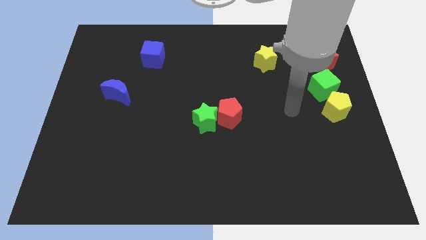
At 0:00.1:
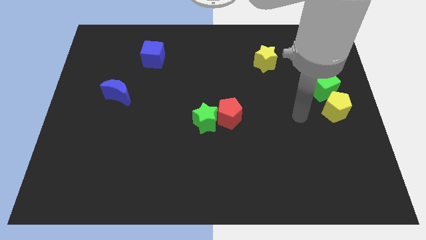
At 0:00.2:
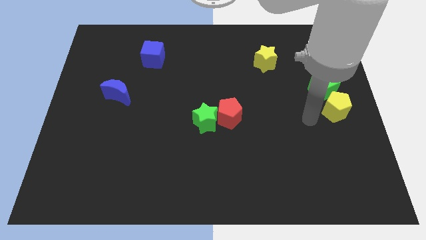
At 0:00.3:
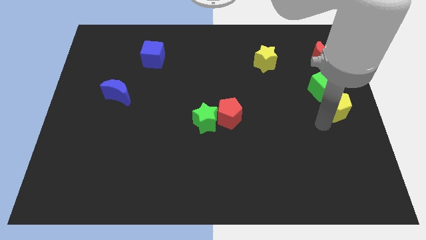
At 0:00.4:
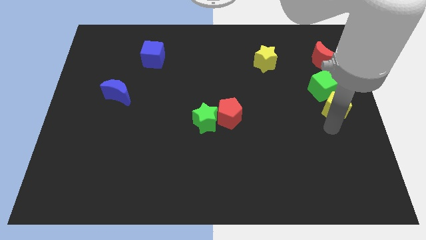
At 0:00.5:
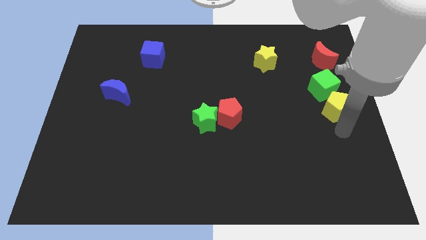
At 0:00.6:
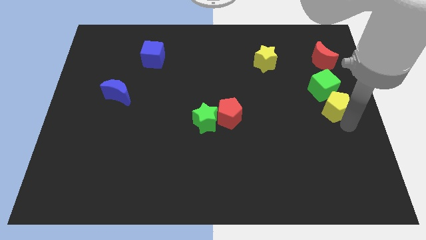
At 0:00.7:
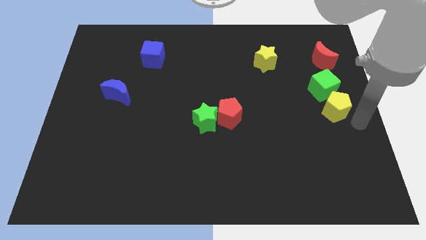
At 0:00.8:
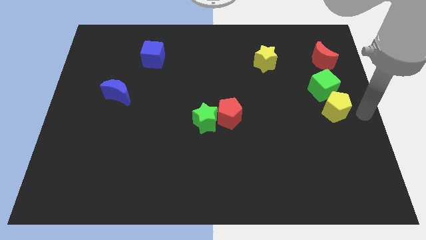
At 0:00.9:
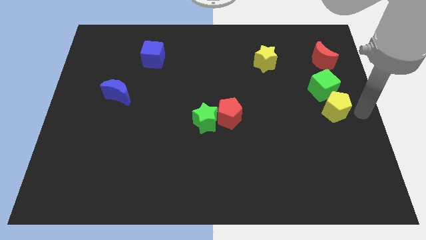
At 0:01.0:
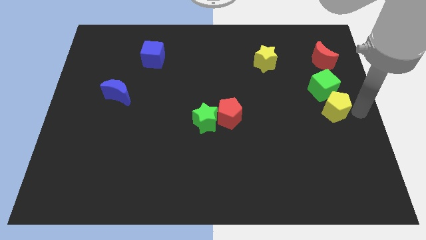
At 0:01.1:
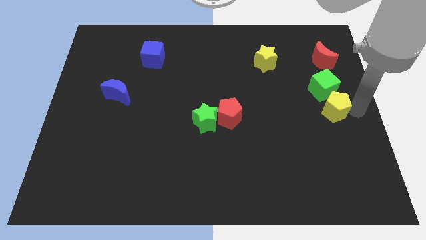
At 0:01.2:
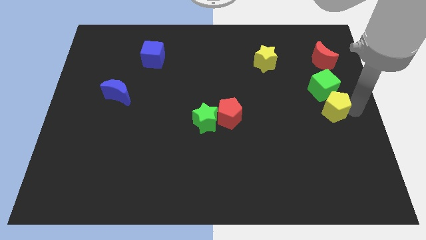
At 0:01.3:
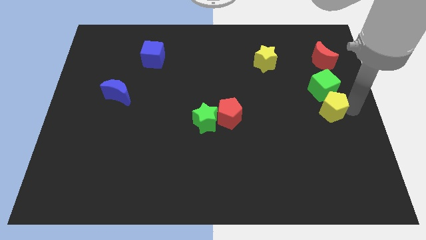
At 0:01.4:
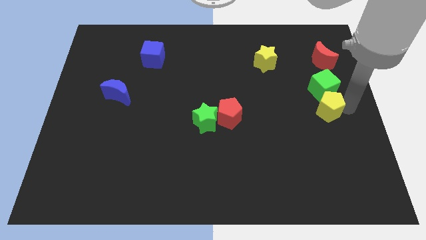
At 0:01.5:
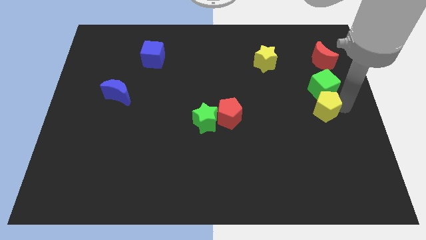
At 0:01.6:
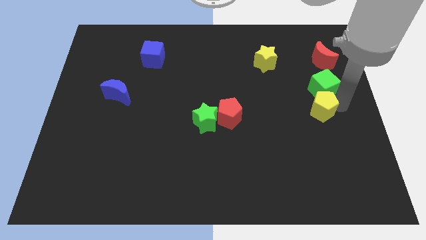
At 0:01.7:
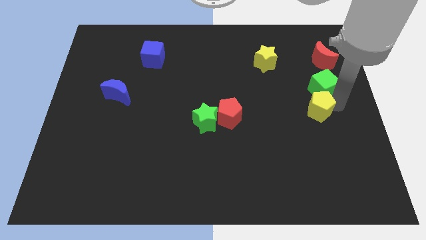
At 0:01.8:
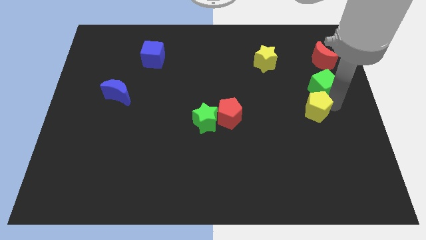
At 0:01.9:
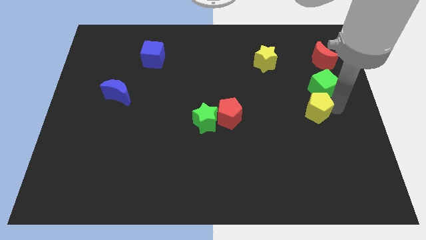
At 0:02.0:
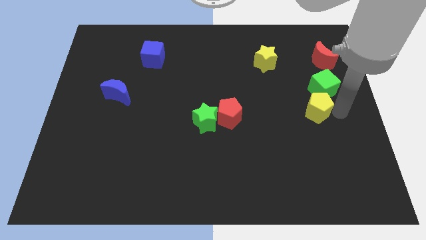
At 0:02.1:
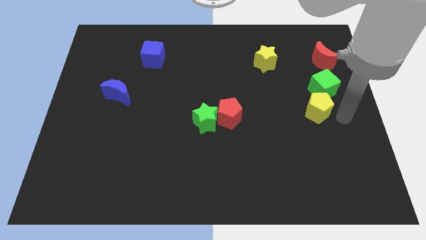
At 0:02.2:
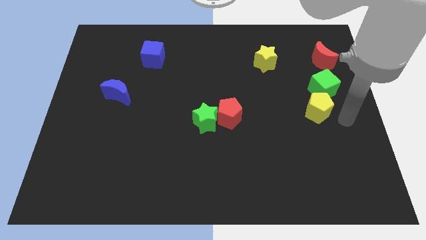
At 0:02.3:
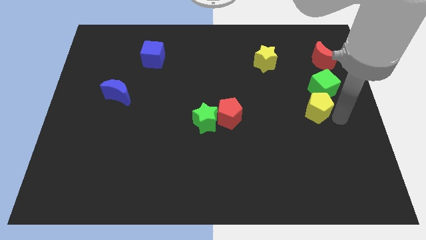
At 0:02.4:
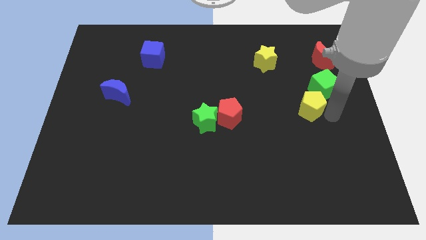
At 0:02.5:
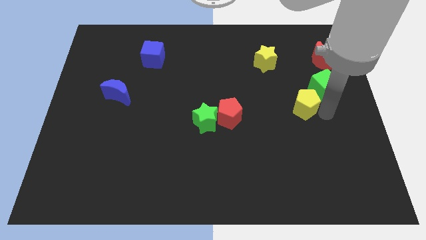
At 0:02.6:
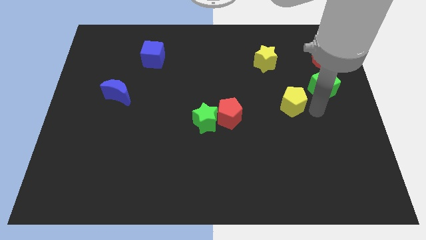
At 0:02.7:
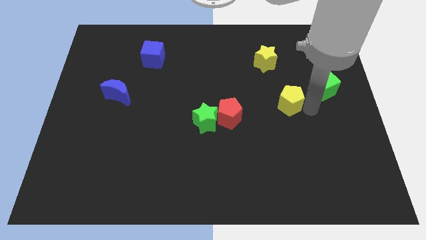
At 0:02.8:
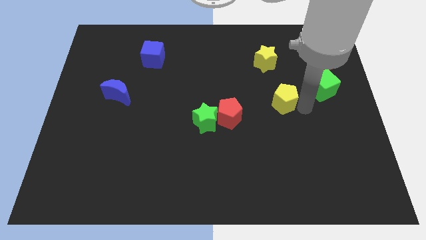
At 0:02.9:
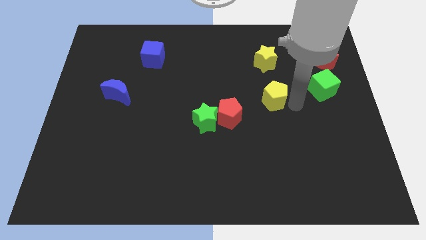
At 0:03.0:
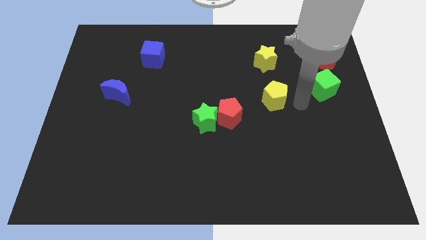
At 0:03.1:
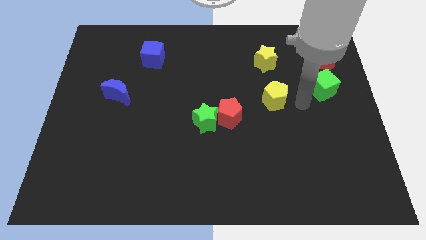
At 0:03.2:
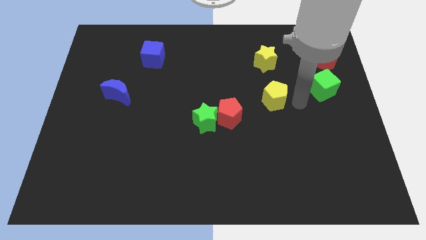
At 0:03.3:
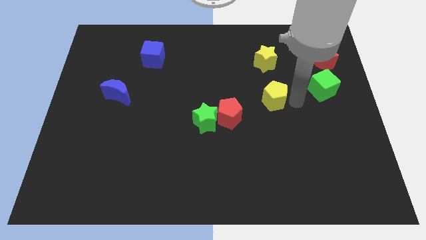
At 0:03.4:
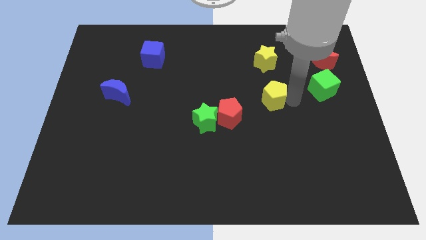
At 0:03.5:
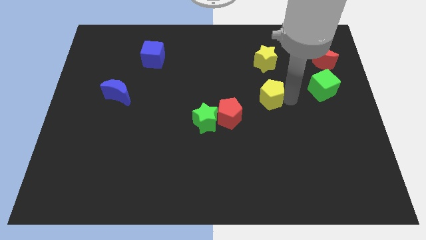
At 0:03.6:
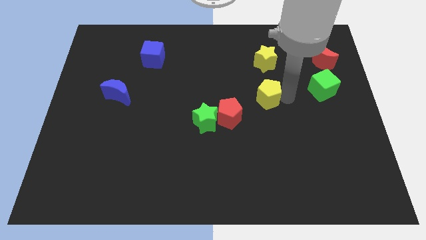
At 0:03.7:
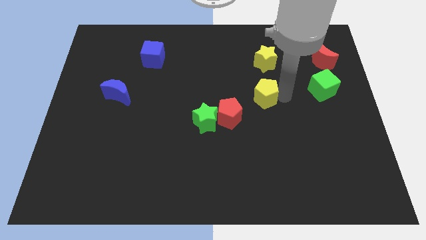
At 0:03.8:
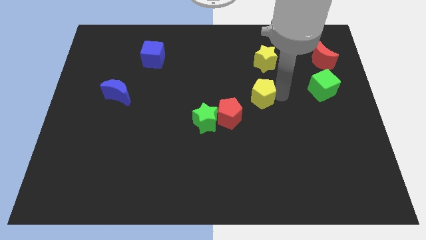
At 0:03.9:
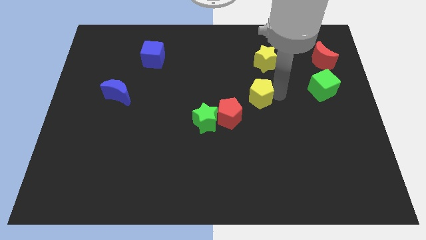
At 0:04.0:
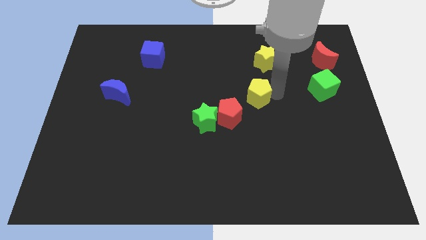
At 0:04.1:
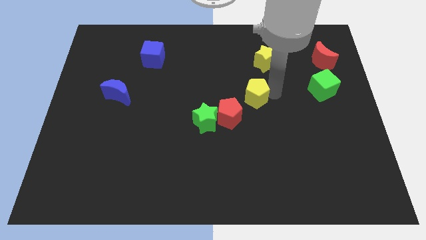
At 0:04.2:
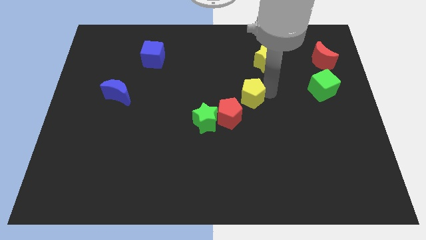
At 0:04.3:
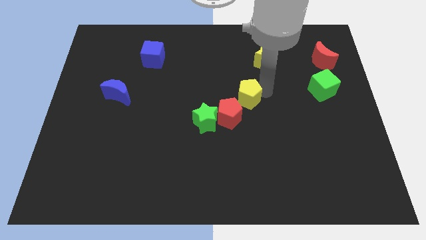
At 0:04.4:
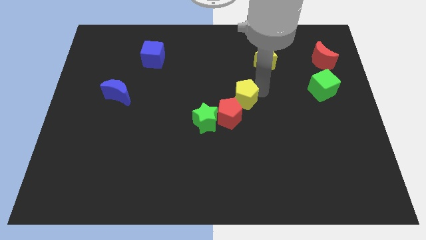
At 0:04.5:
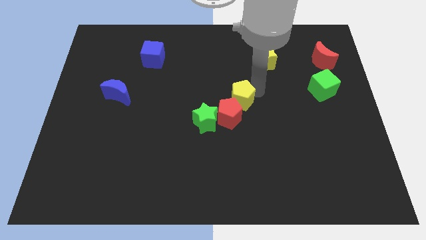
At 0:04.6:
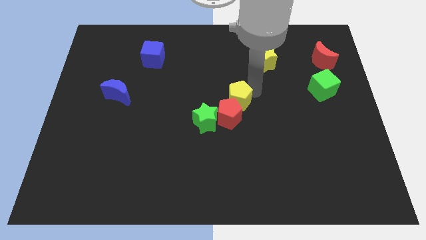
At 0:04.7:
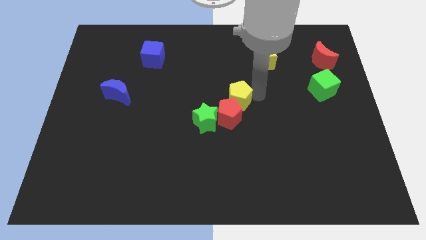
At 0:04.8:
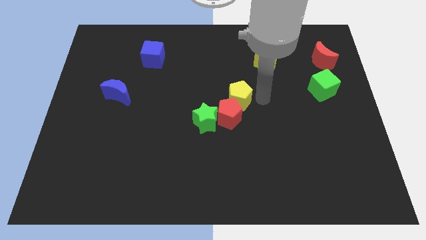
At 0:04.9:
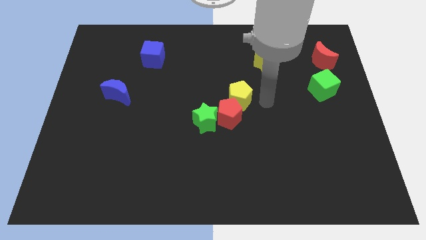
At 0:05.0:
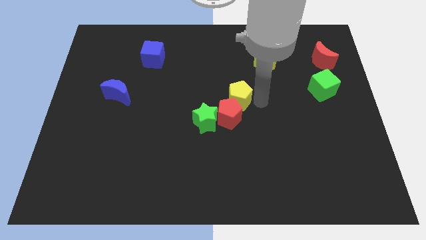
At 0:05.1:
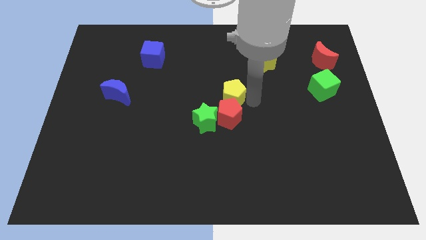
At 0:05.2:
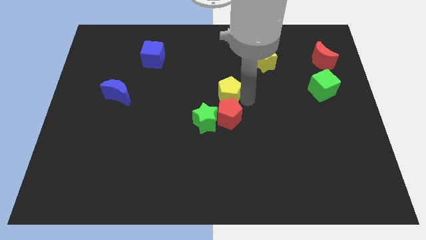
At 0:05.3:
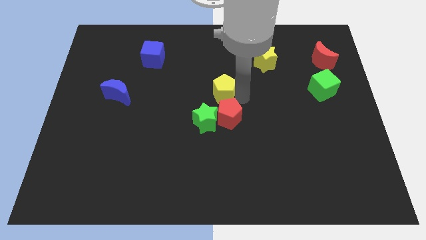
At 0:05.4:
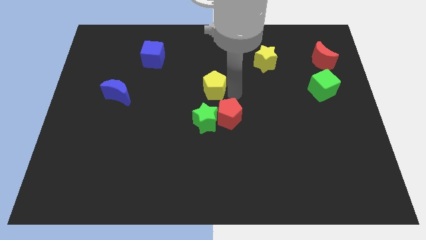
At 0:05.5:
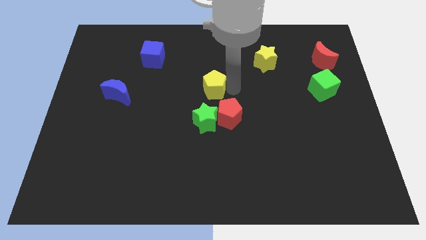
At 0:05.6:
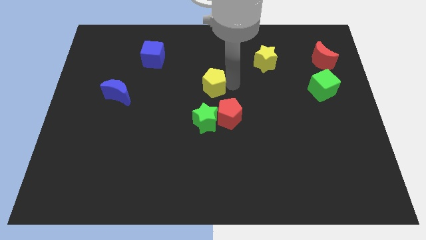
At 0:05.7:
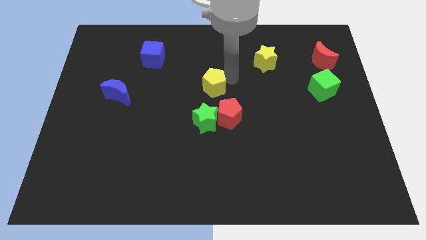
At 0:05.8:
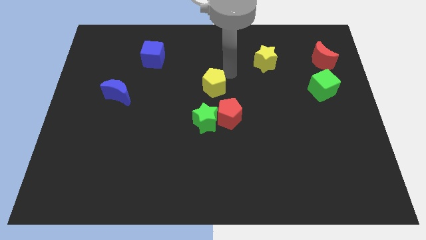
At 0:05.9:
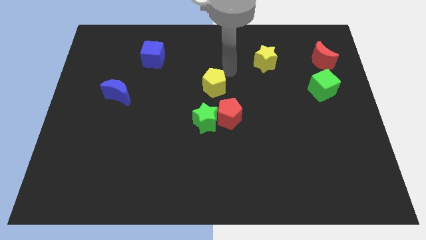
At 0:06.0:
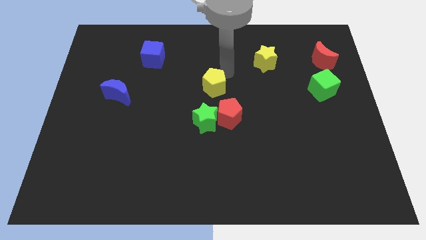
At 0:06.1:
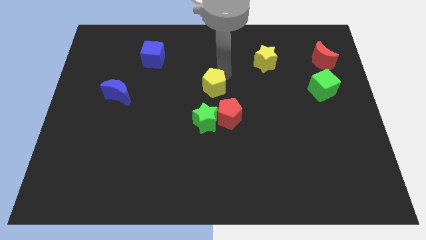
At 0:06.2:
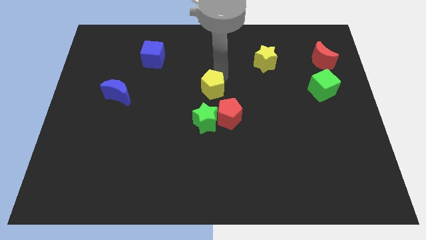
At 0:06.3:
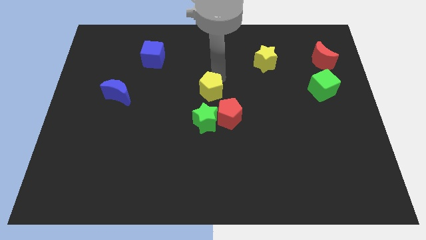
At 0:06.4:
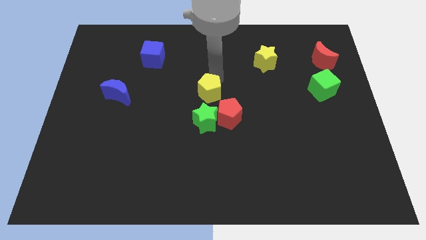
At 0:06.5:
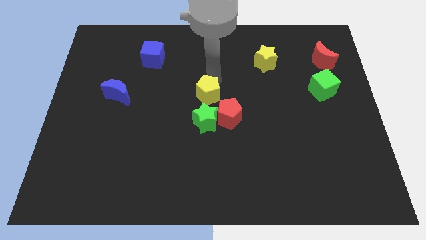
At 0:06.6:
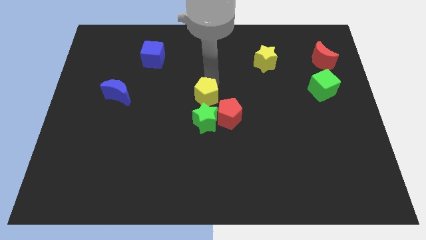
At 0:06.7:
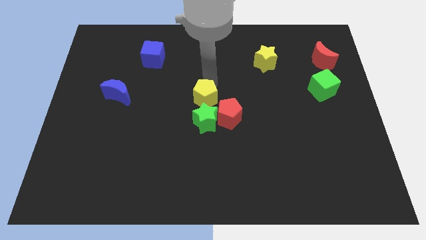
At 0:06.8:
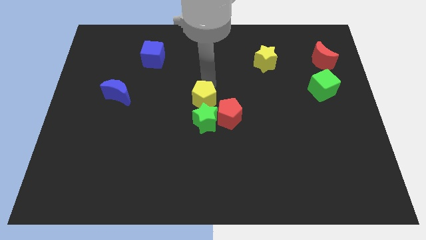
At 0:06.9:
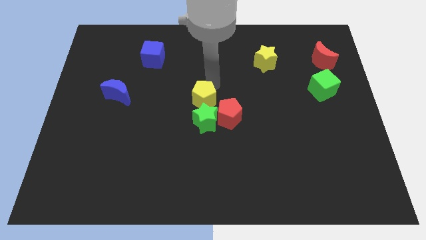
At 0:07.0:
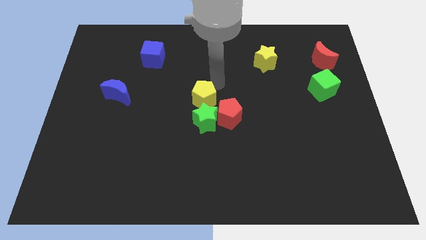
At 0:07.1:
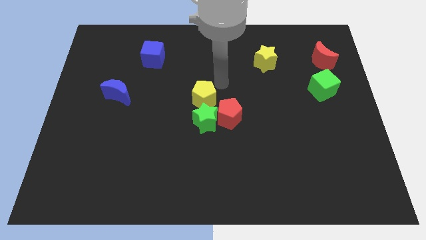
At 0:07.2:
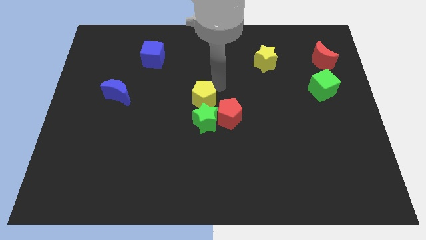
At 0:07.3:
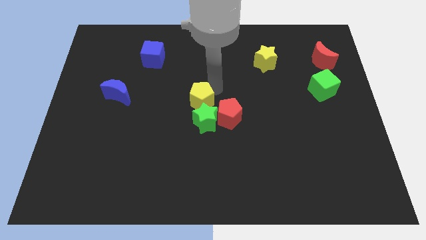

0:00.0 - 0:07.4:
push the yellow pentagon to the green star
